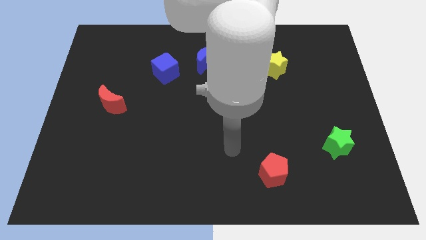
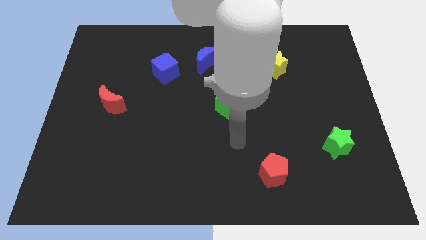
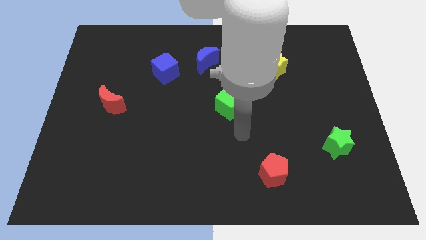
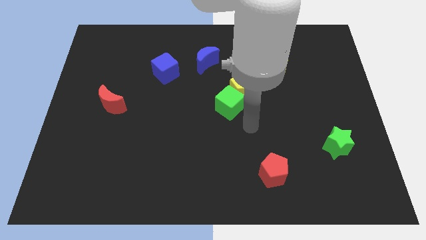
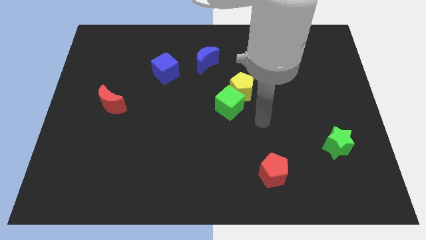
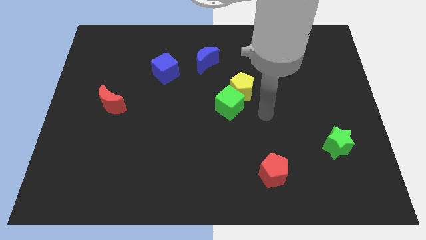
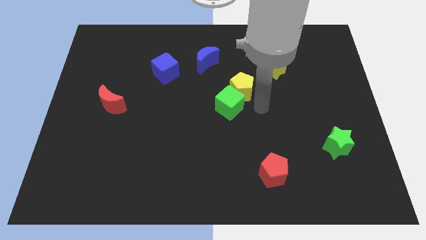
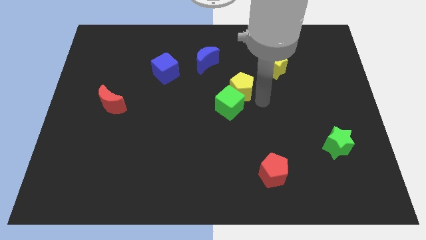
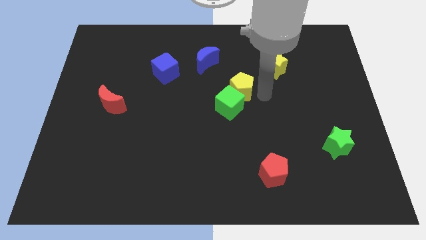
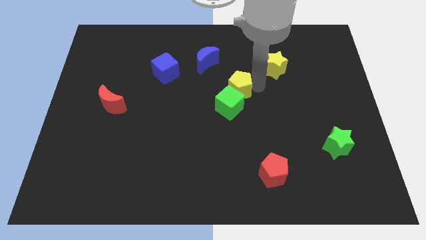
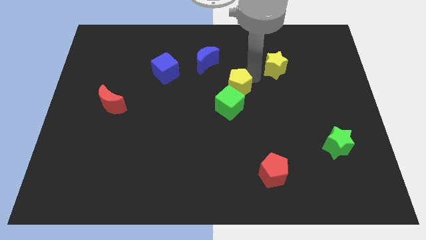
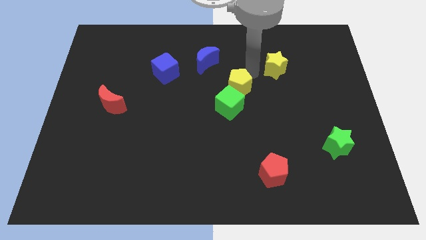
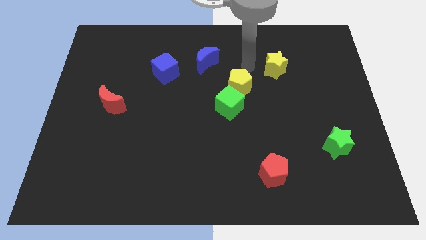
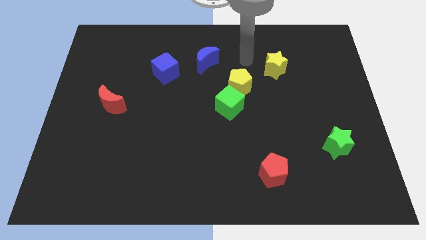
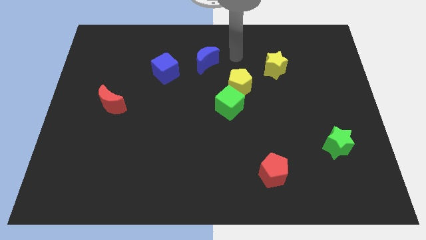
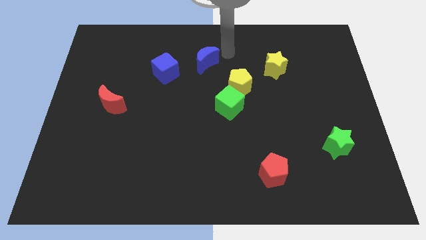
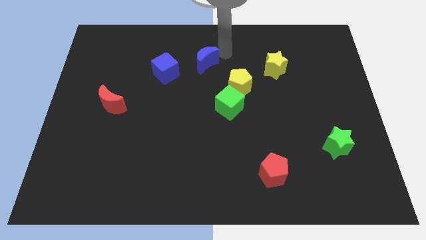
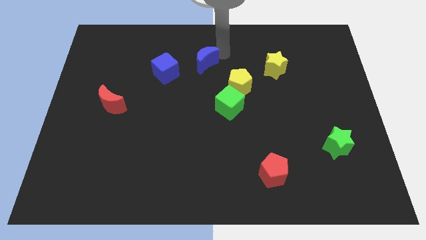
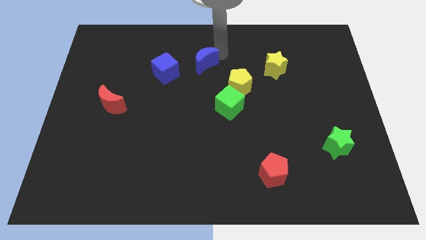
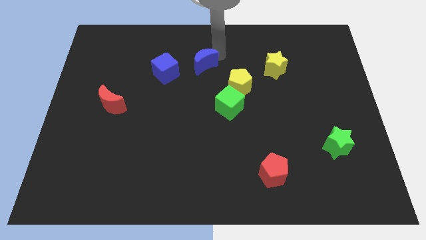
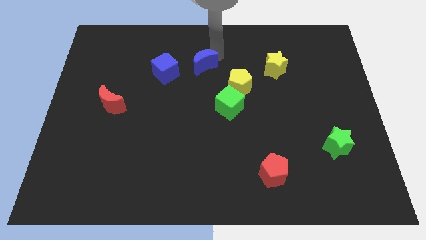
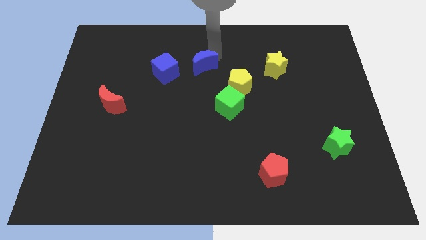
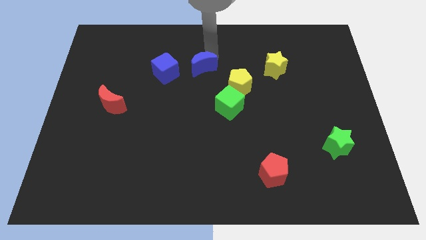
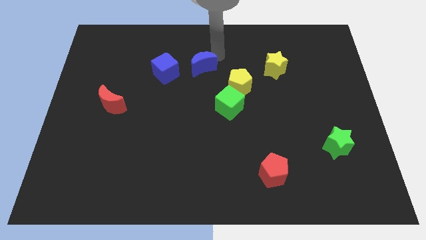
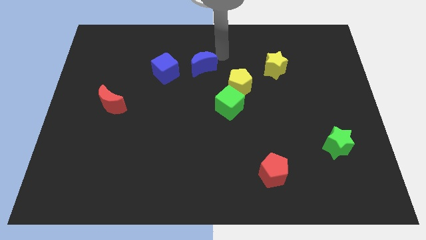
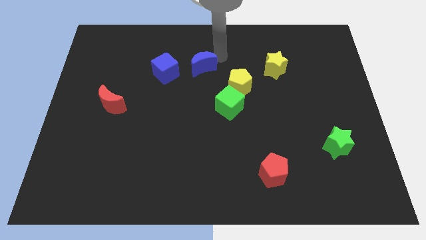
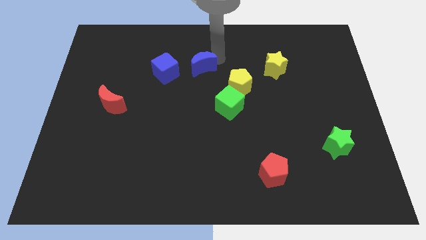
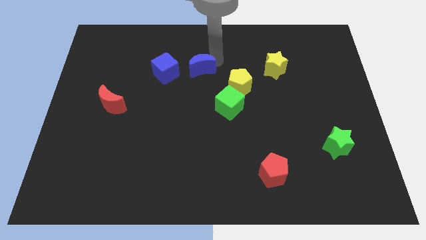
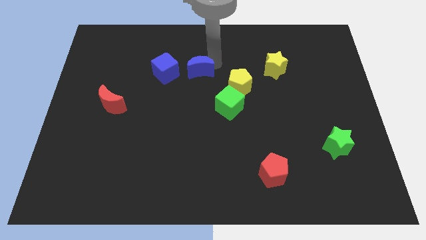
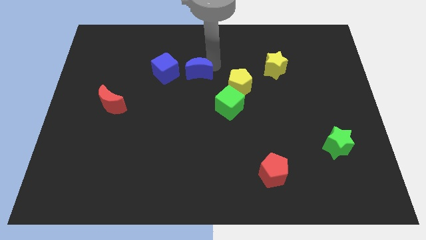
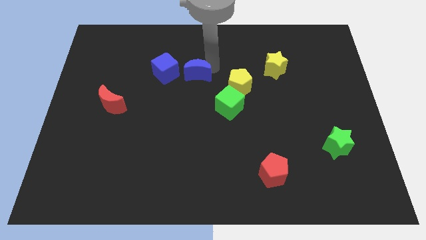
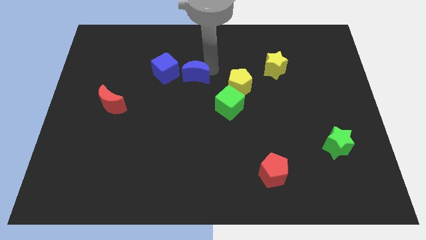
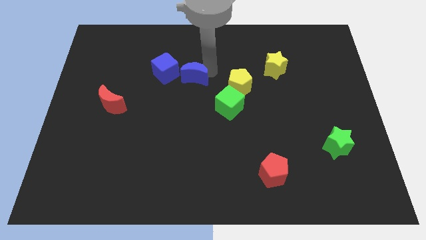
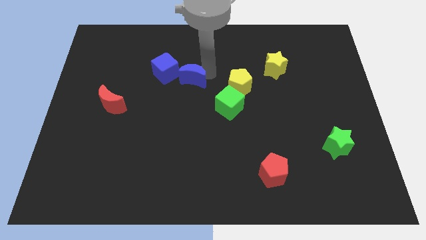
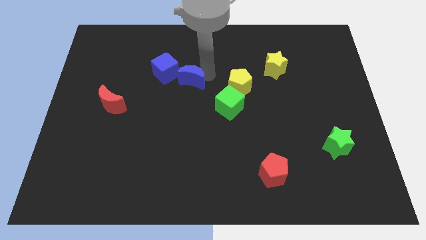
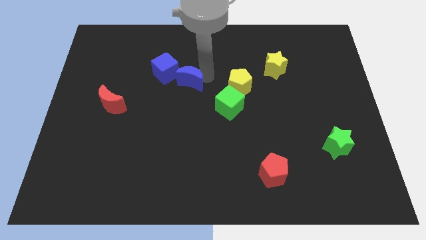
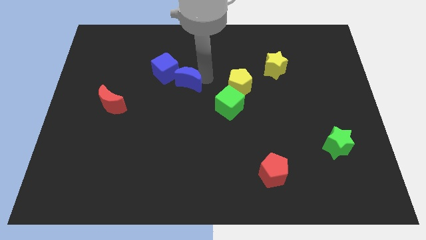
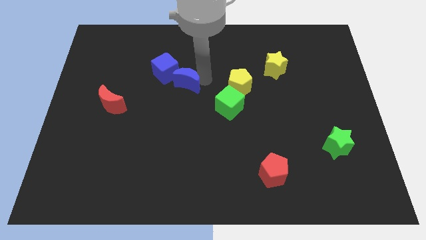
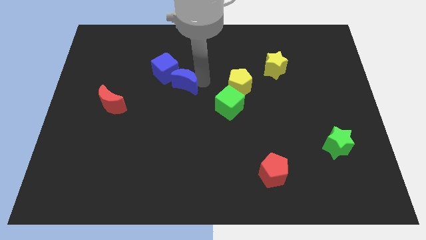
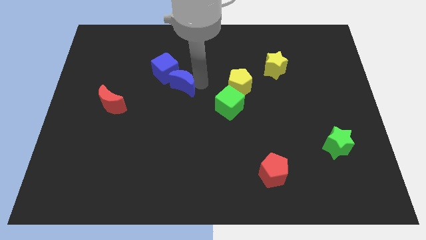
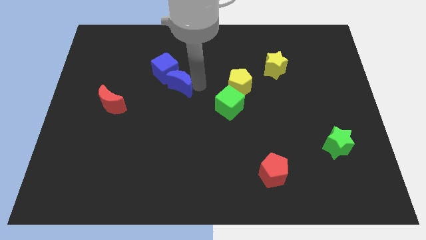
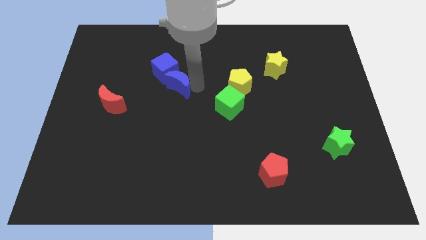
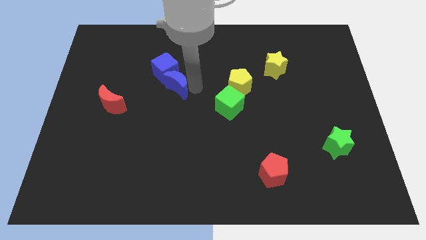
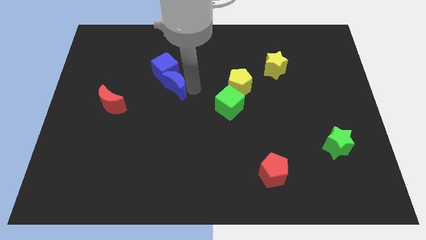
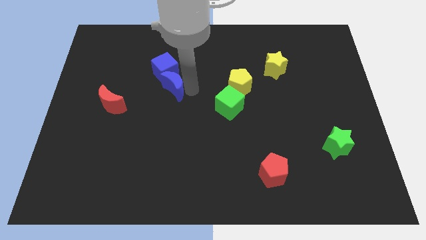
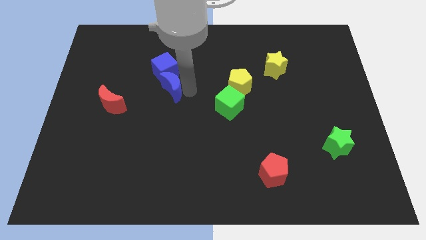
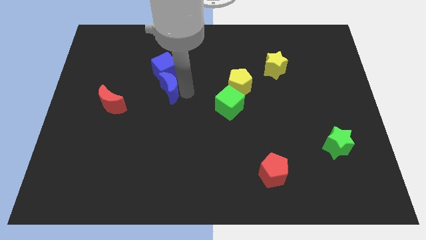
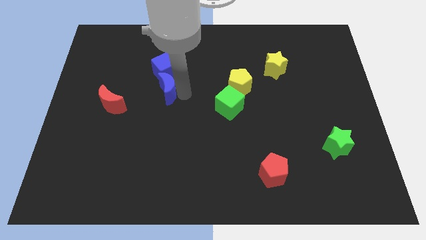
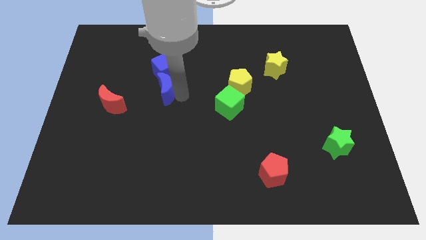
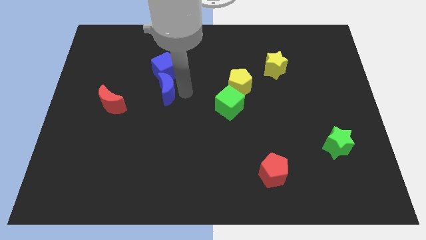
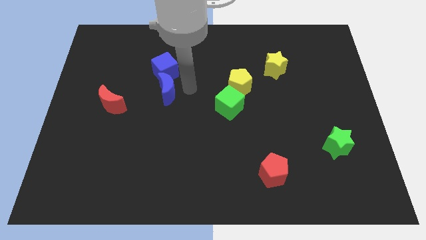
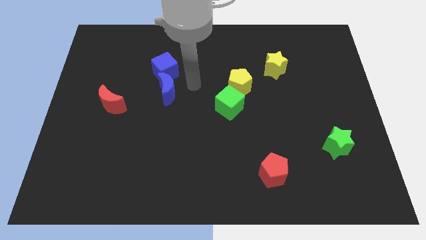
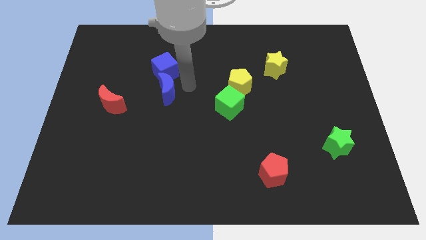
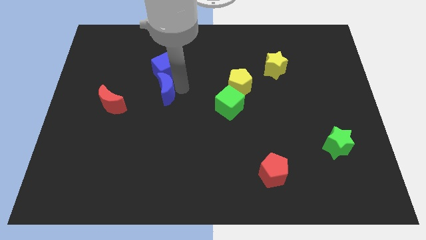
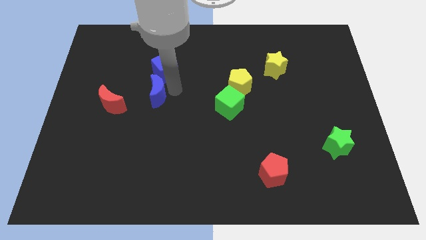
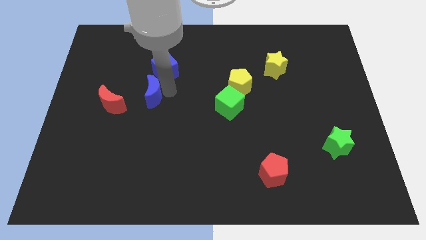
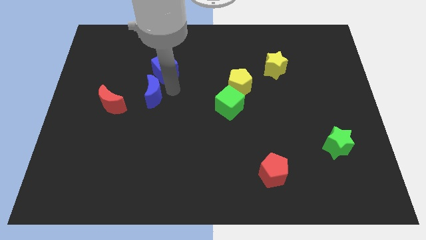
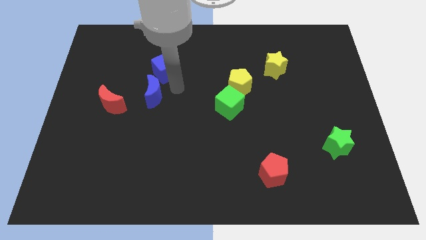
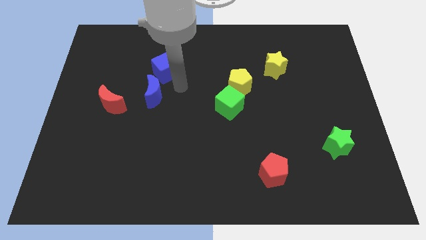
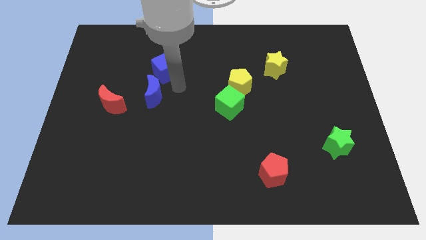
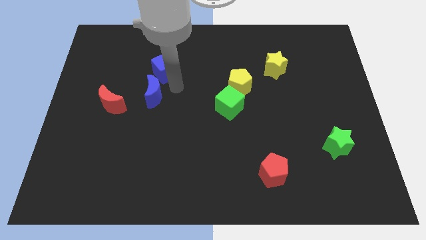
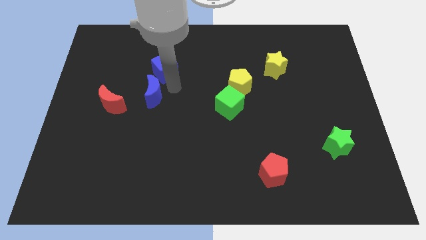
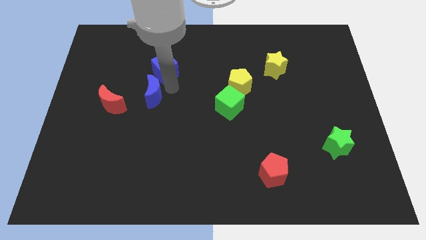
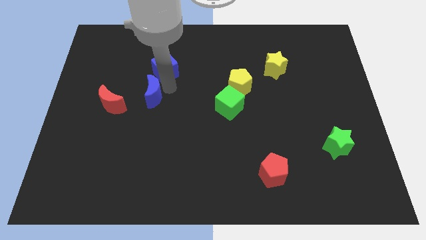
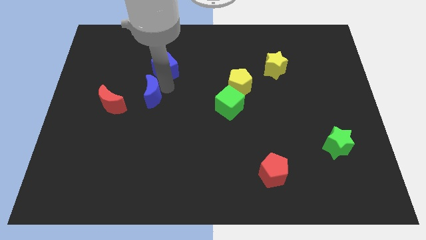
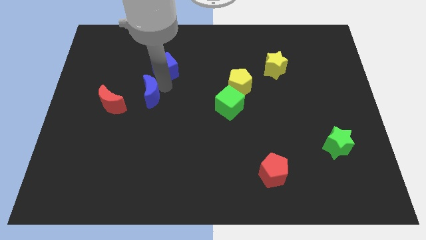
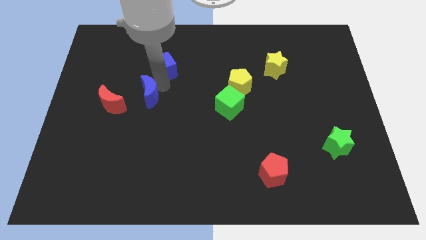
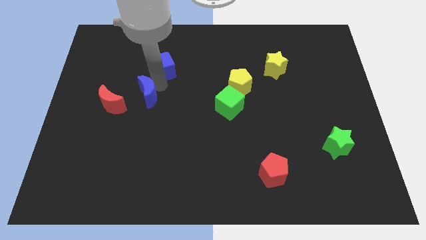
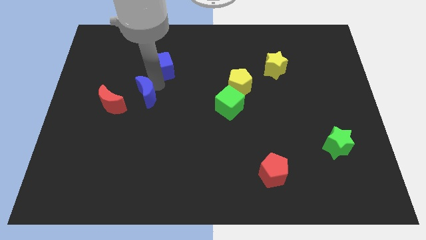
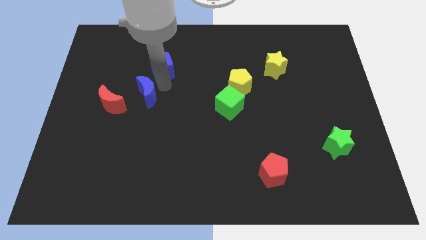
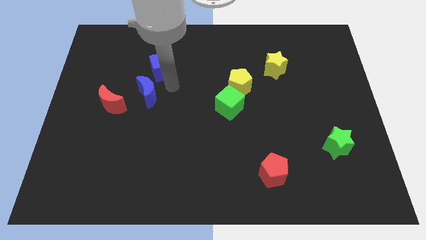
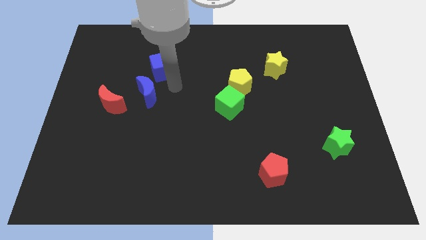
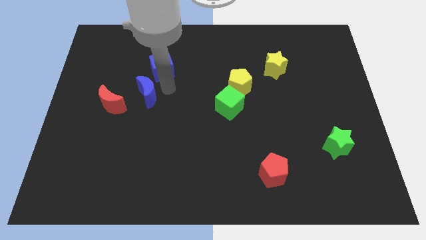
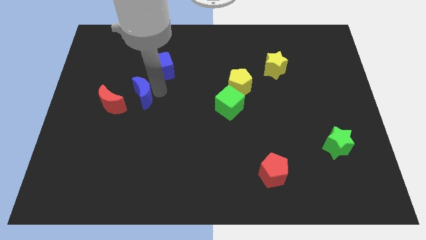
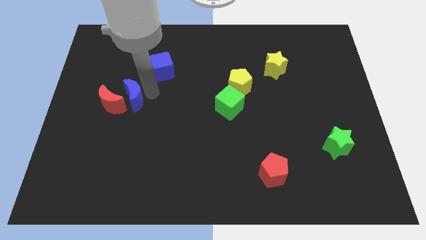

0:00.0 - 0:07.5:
slide the blue moon close to the red moon
